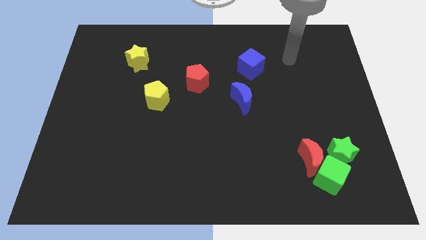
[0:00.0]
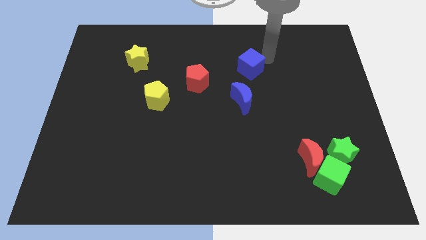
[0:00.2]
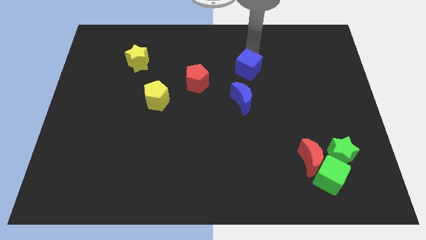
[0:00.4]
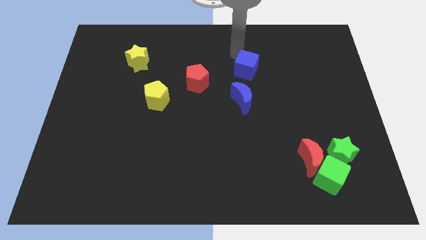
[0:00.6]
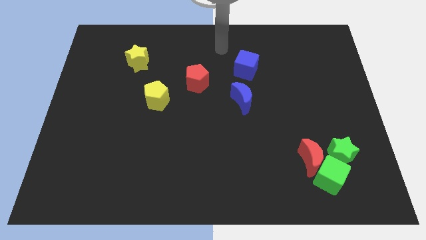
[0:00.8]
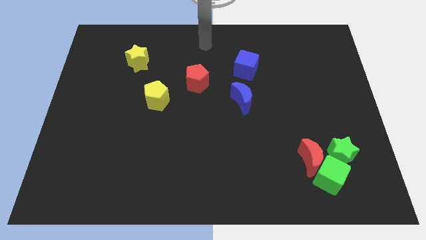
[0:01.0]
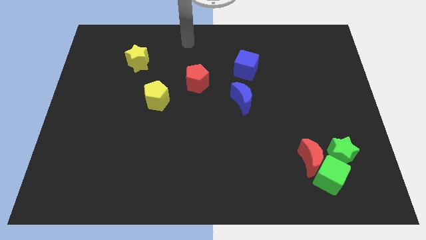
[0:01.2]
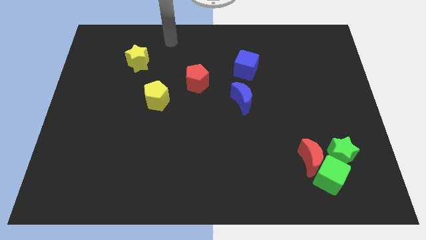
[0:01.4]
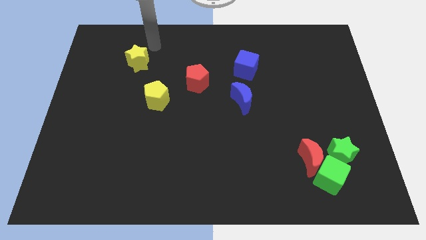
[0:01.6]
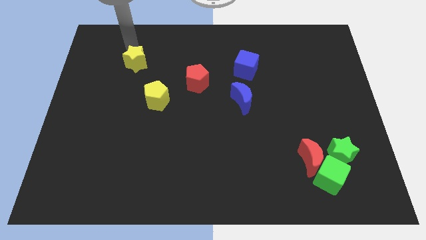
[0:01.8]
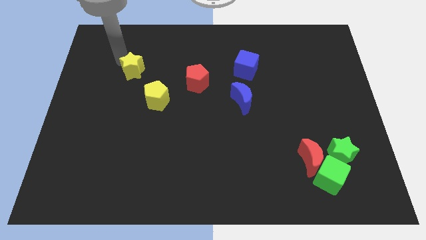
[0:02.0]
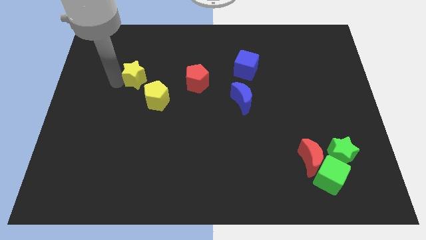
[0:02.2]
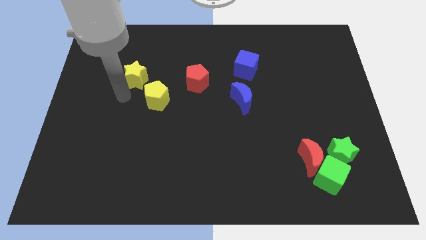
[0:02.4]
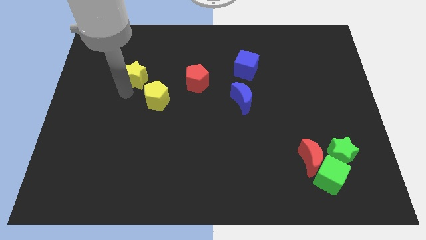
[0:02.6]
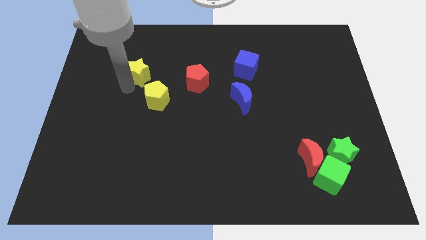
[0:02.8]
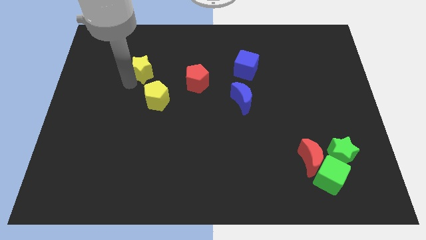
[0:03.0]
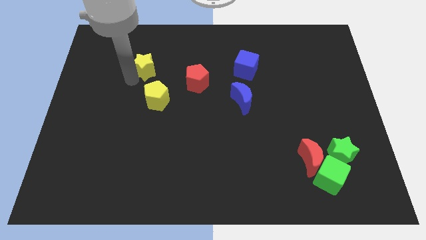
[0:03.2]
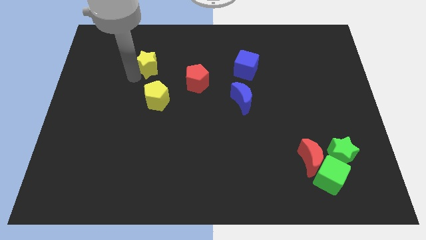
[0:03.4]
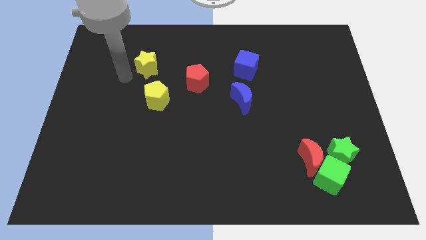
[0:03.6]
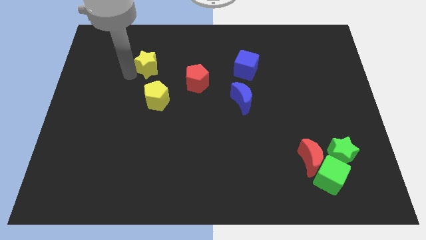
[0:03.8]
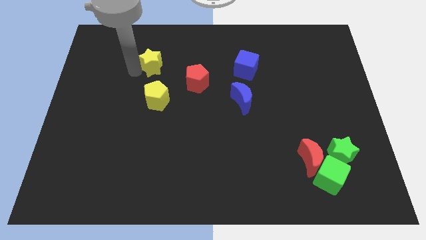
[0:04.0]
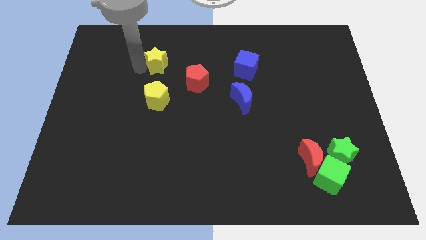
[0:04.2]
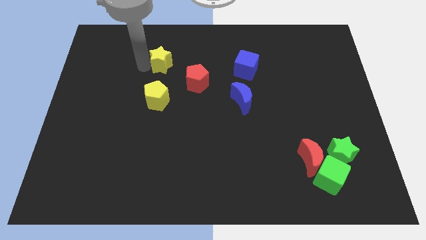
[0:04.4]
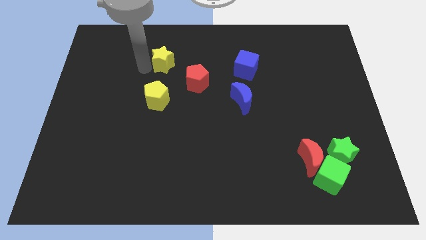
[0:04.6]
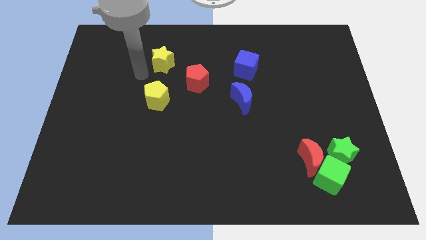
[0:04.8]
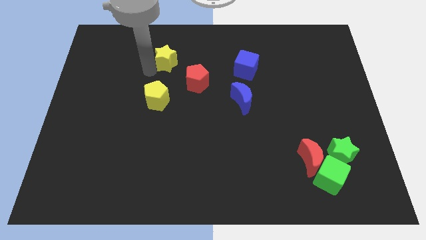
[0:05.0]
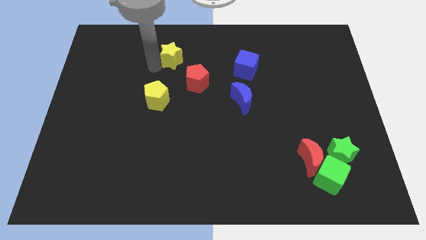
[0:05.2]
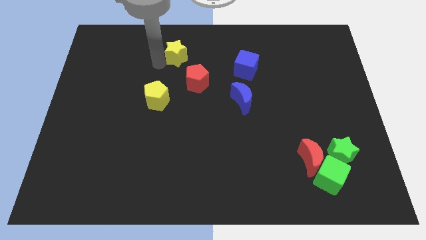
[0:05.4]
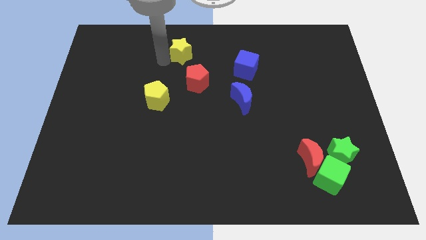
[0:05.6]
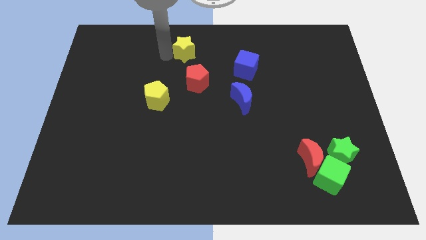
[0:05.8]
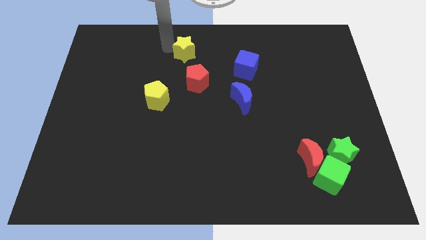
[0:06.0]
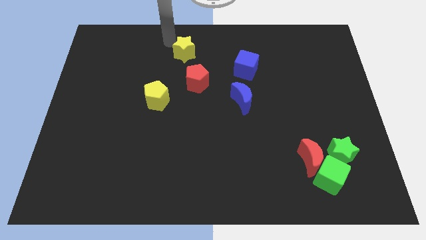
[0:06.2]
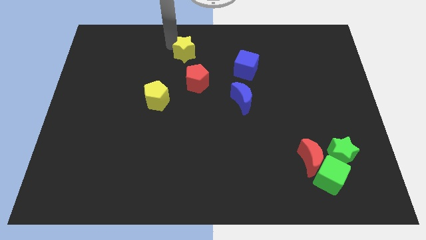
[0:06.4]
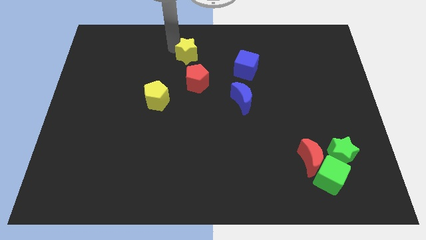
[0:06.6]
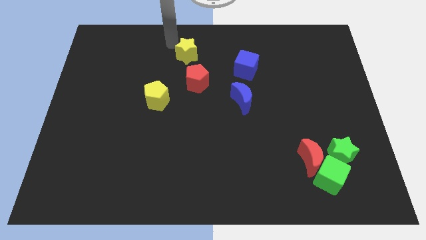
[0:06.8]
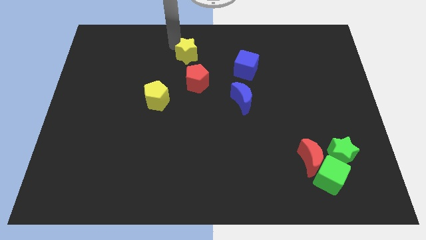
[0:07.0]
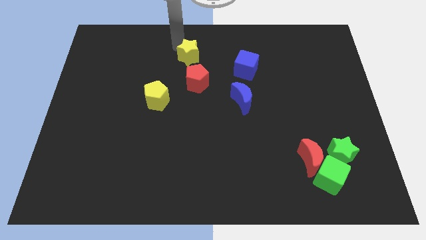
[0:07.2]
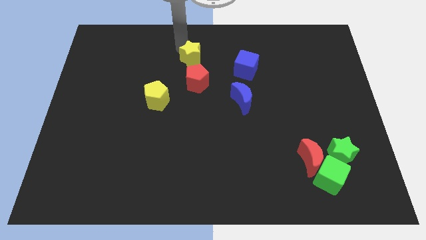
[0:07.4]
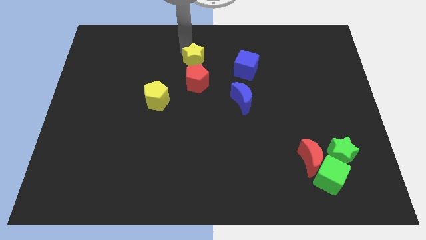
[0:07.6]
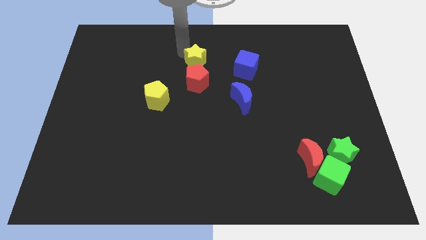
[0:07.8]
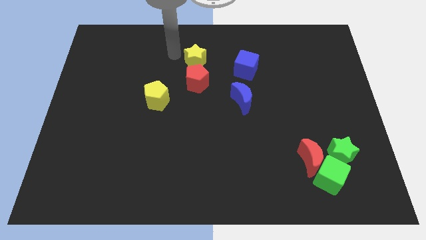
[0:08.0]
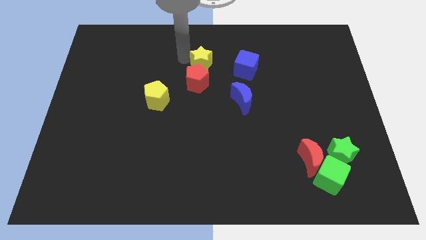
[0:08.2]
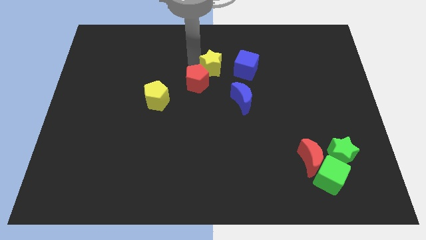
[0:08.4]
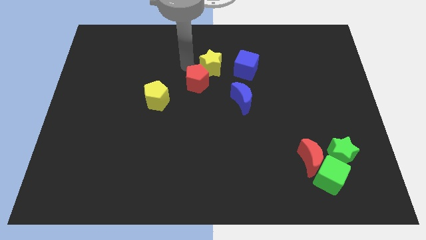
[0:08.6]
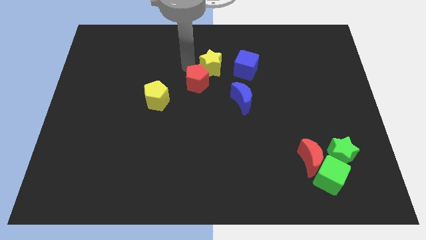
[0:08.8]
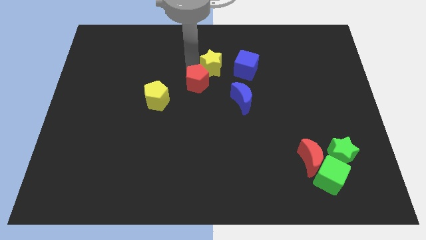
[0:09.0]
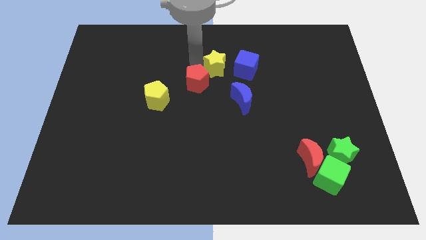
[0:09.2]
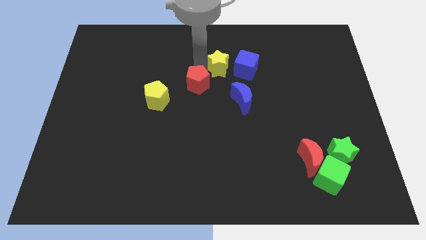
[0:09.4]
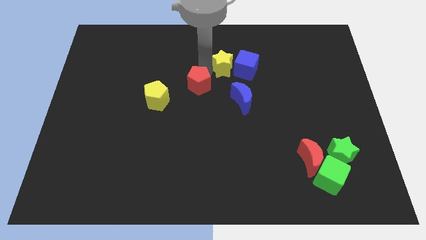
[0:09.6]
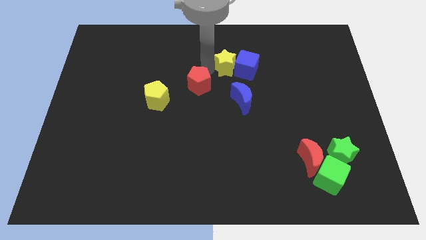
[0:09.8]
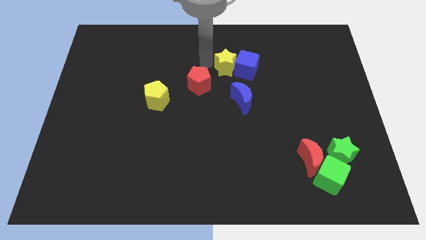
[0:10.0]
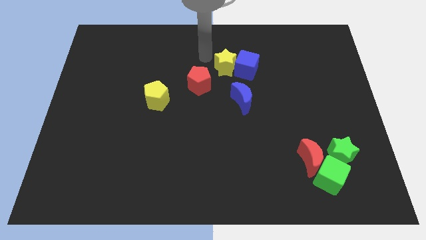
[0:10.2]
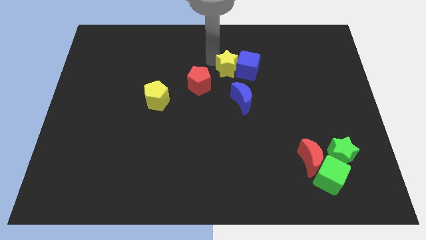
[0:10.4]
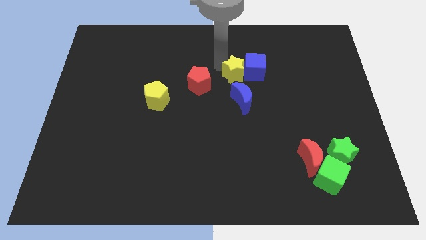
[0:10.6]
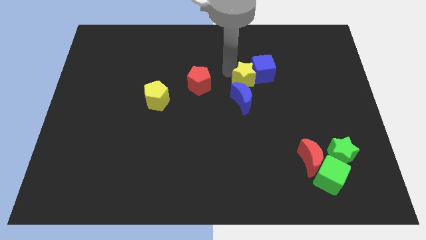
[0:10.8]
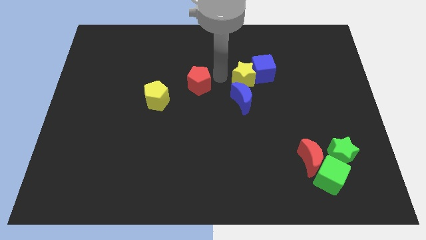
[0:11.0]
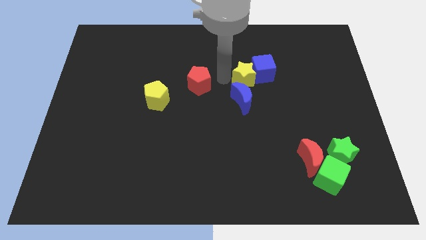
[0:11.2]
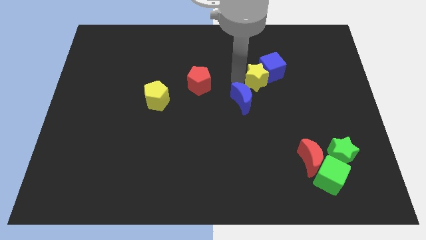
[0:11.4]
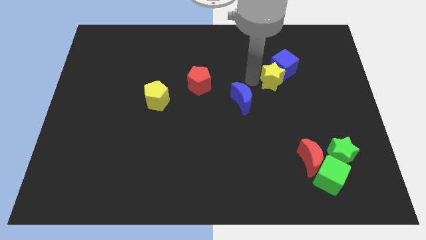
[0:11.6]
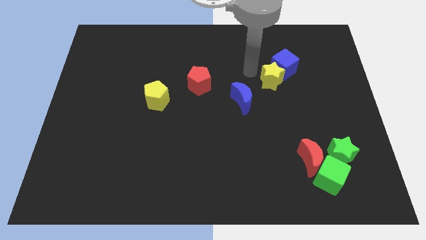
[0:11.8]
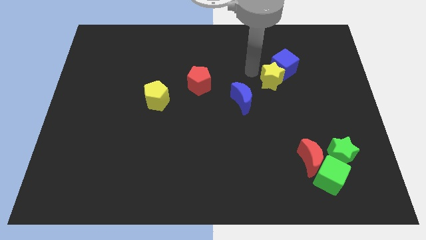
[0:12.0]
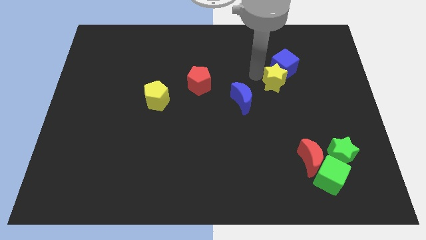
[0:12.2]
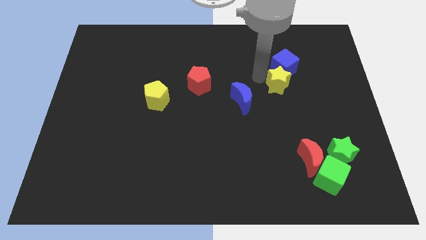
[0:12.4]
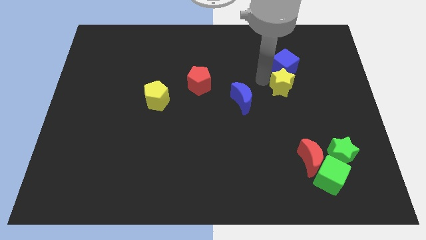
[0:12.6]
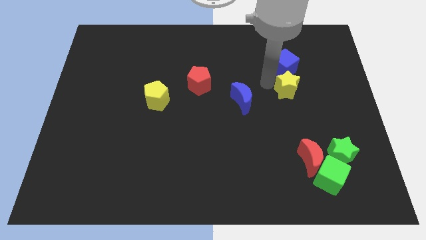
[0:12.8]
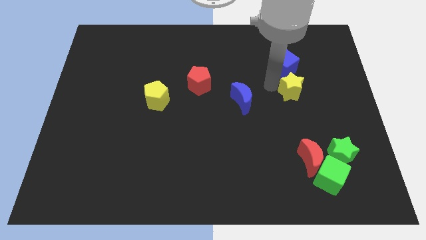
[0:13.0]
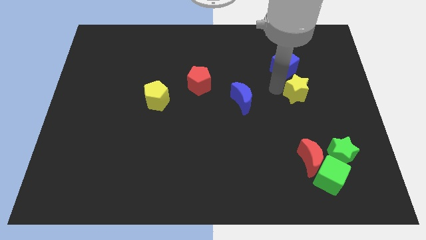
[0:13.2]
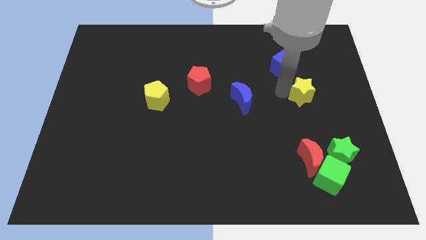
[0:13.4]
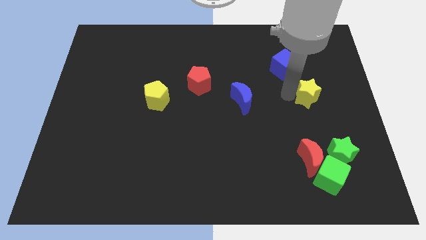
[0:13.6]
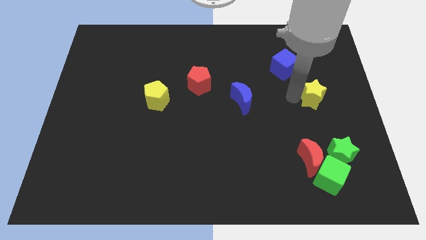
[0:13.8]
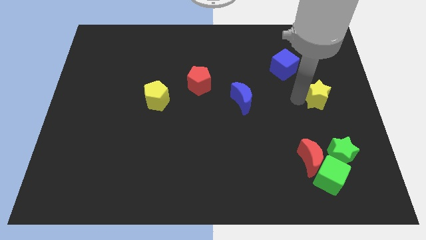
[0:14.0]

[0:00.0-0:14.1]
put the yellow star to the right side
